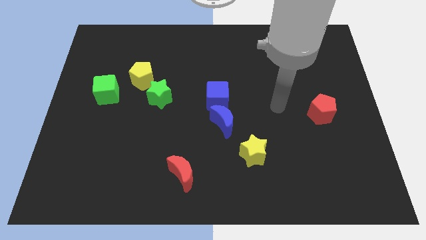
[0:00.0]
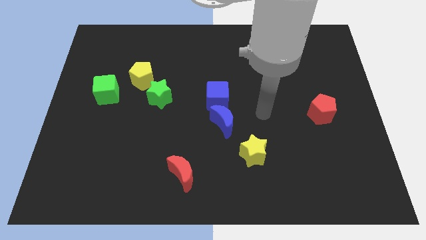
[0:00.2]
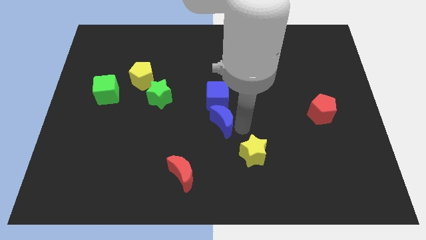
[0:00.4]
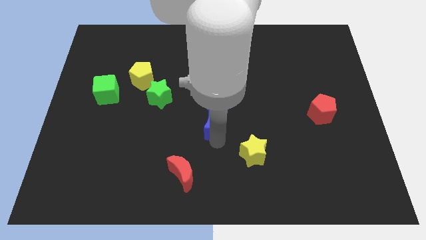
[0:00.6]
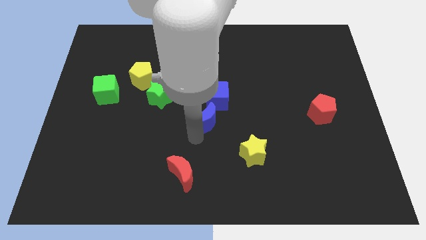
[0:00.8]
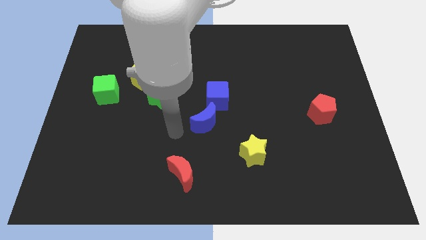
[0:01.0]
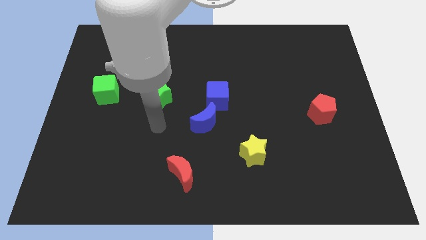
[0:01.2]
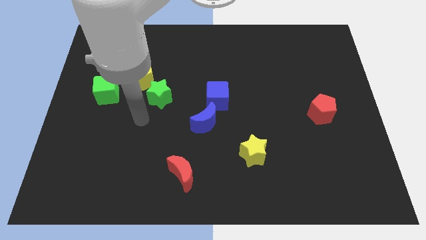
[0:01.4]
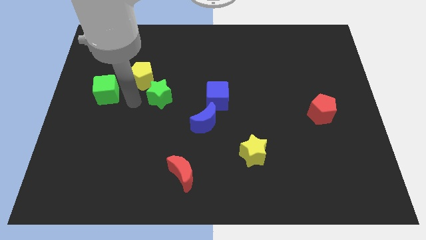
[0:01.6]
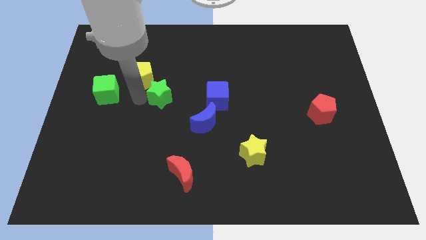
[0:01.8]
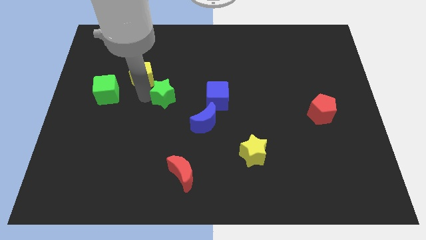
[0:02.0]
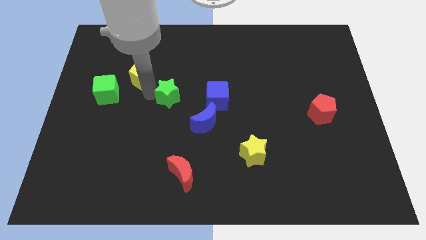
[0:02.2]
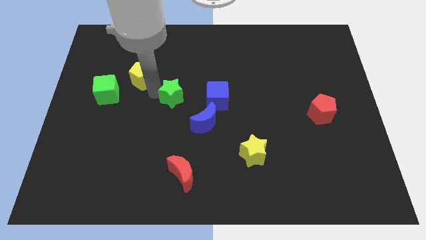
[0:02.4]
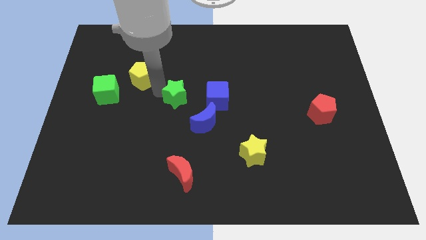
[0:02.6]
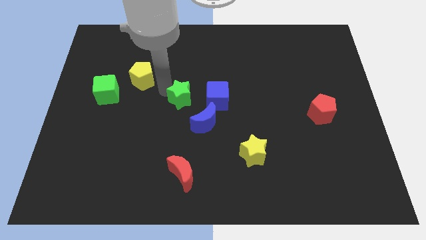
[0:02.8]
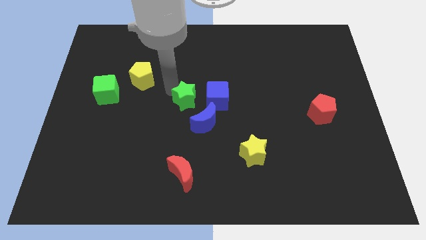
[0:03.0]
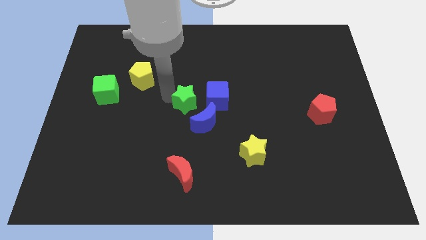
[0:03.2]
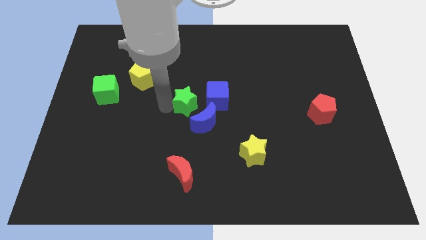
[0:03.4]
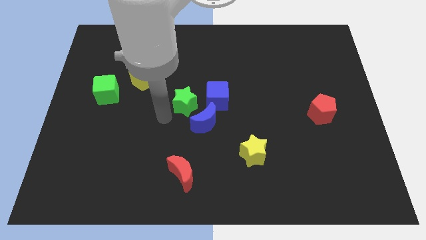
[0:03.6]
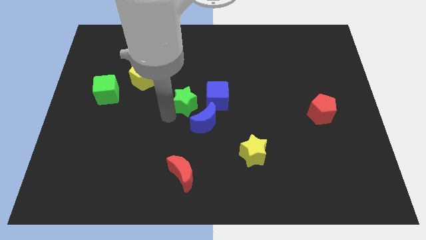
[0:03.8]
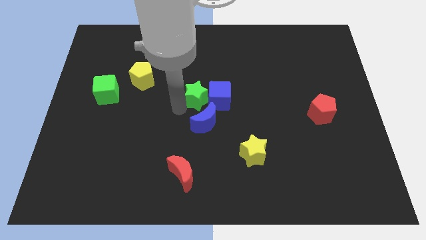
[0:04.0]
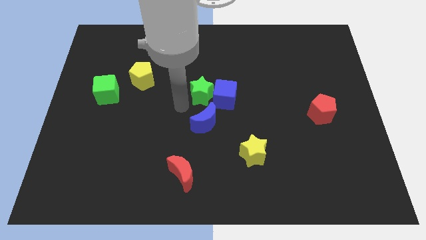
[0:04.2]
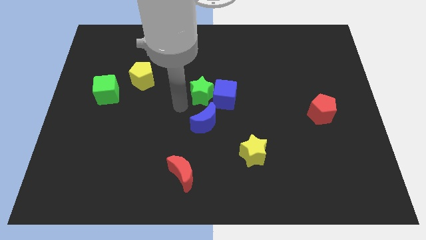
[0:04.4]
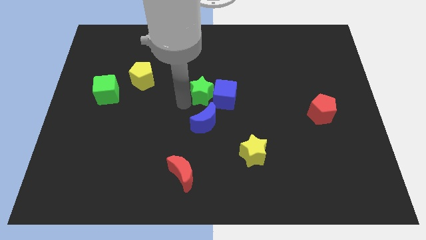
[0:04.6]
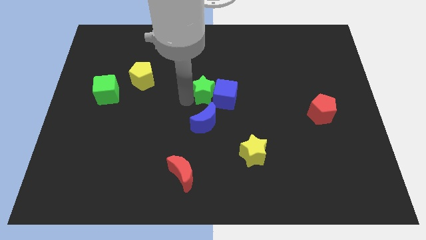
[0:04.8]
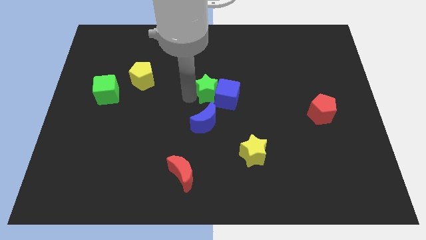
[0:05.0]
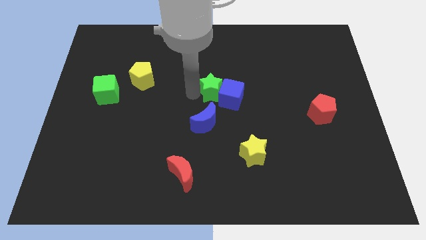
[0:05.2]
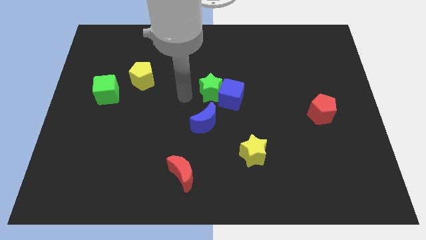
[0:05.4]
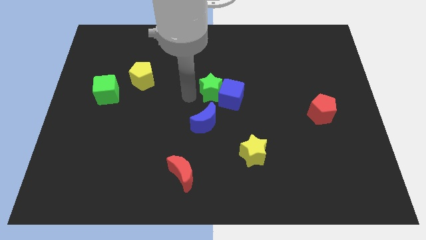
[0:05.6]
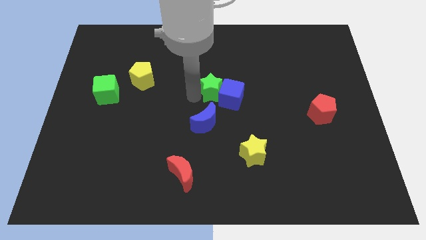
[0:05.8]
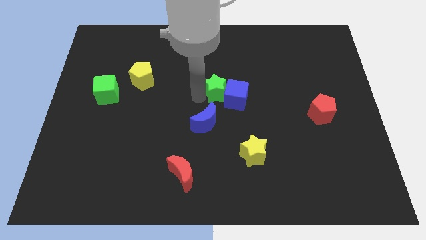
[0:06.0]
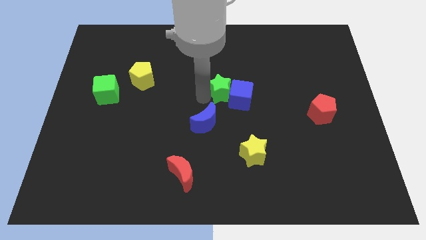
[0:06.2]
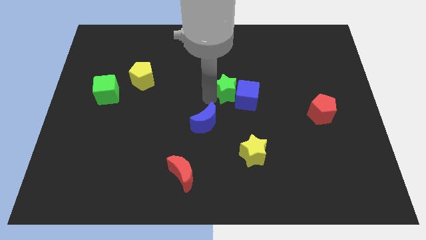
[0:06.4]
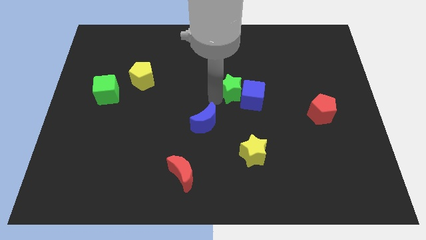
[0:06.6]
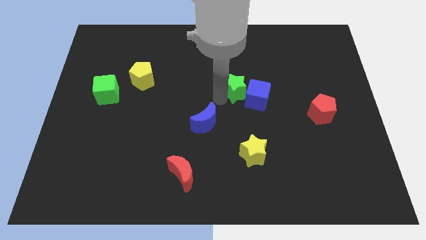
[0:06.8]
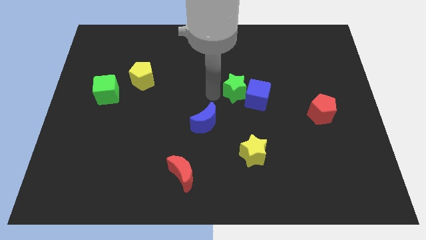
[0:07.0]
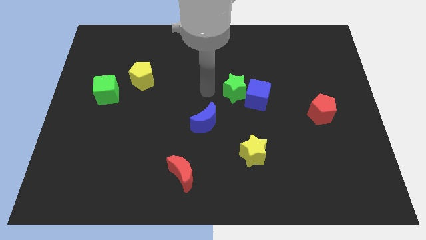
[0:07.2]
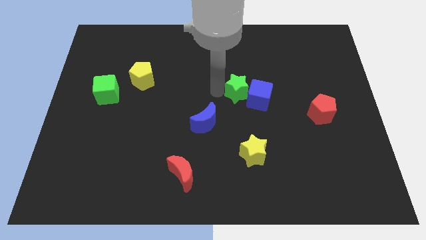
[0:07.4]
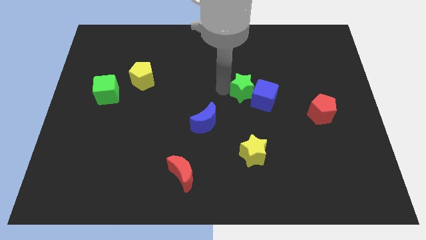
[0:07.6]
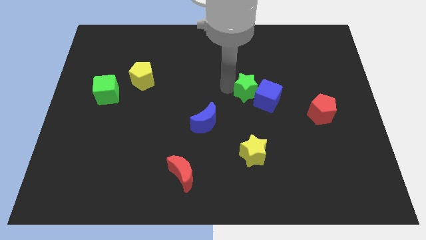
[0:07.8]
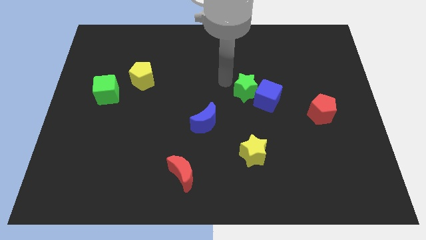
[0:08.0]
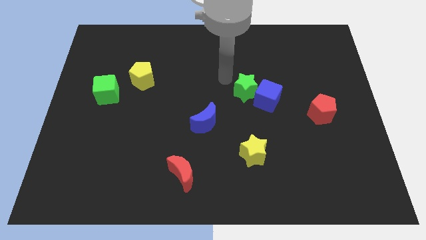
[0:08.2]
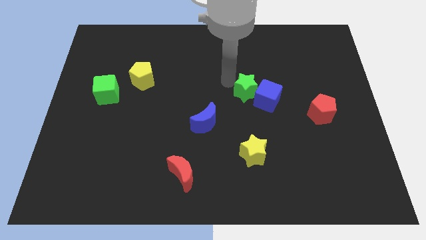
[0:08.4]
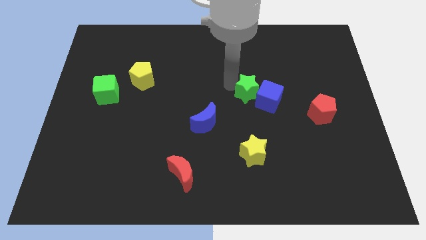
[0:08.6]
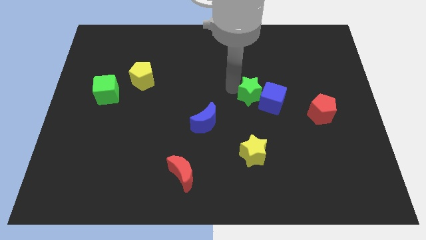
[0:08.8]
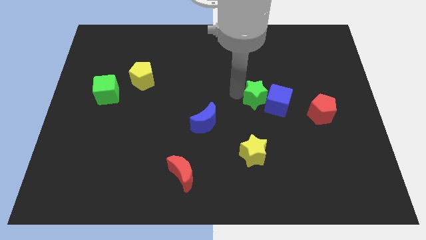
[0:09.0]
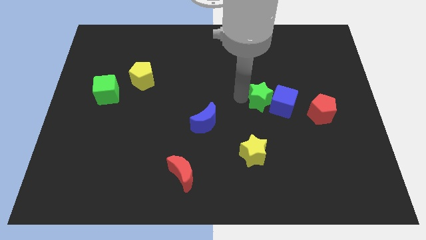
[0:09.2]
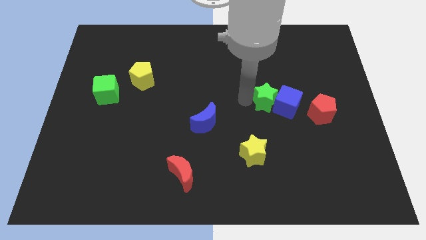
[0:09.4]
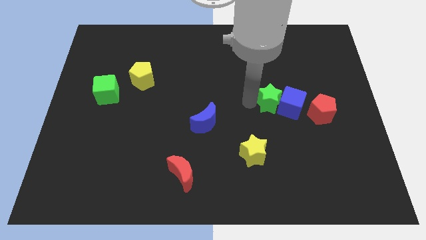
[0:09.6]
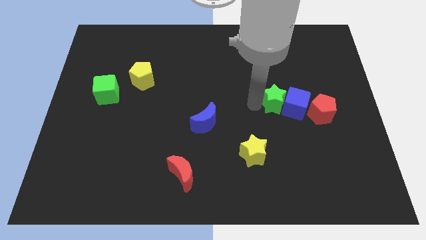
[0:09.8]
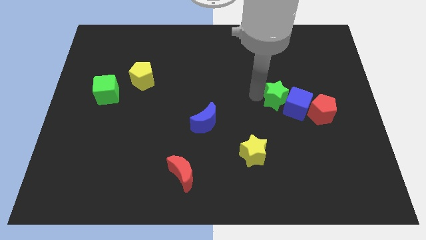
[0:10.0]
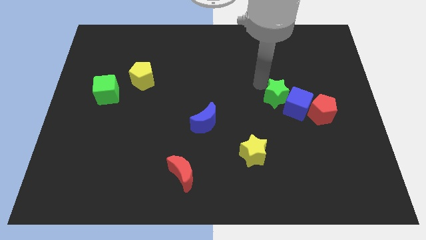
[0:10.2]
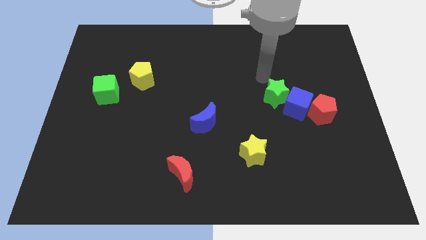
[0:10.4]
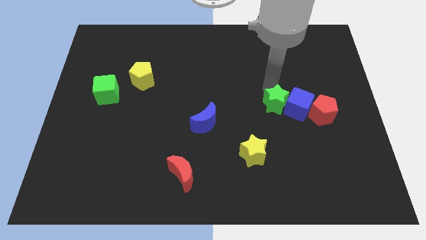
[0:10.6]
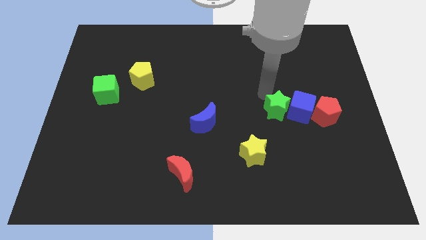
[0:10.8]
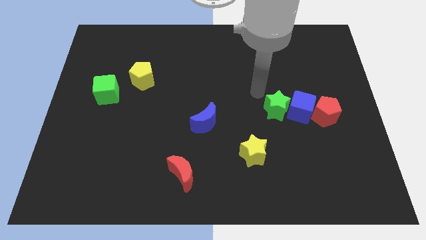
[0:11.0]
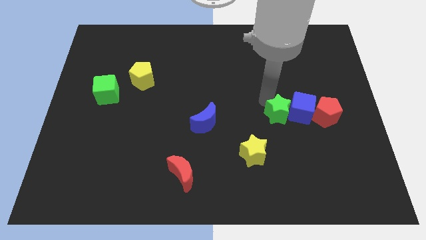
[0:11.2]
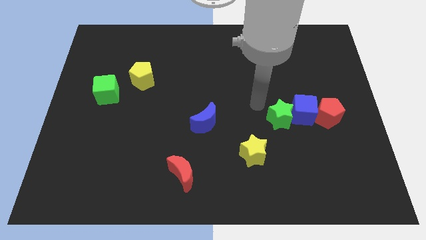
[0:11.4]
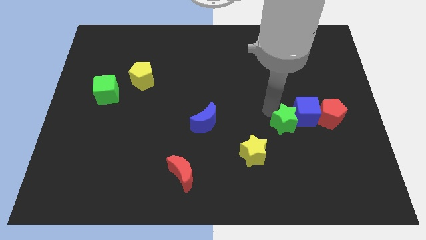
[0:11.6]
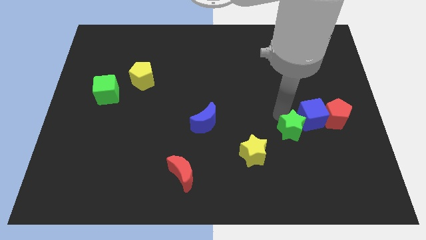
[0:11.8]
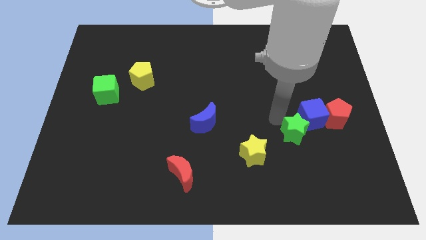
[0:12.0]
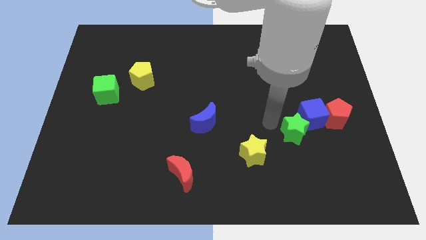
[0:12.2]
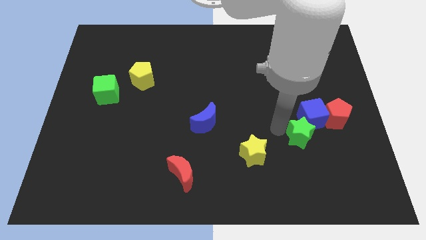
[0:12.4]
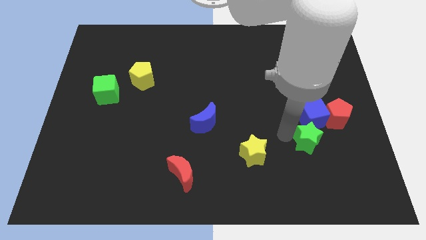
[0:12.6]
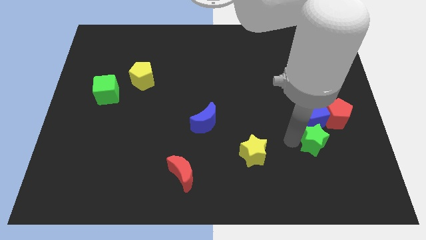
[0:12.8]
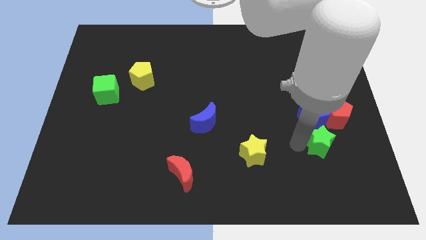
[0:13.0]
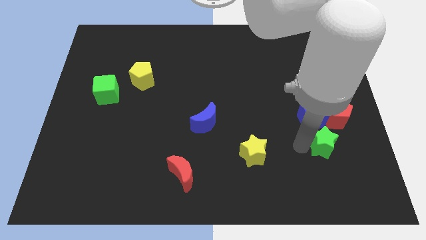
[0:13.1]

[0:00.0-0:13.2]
move the green star to the bottom side of the red pentagon

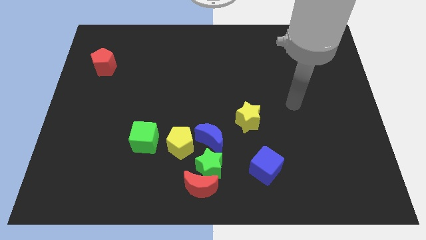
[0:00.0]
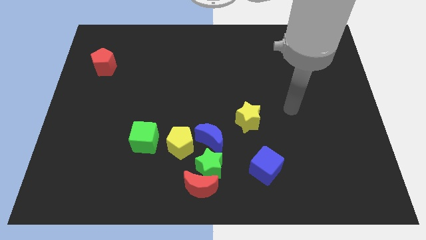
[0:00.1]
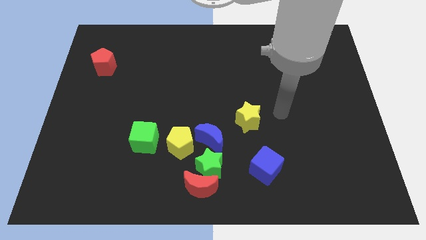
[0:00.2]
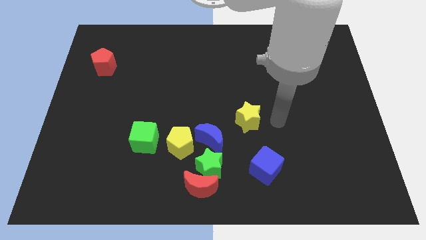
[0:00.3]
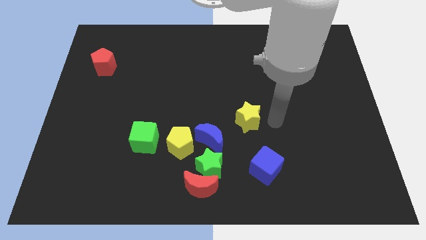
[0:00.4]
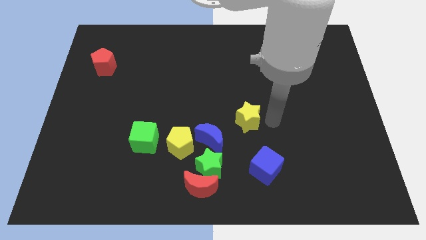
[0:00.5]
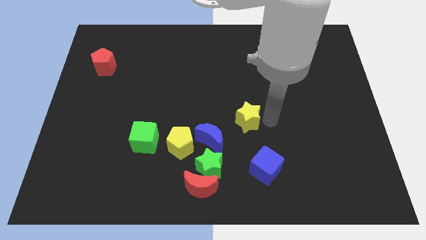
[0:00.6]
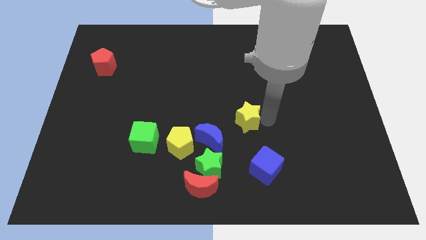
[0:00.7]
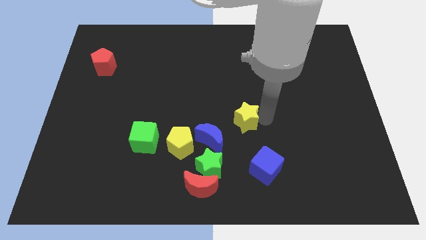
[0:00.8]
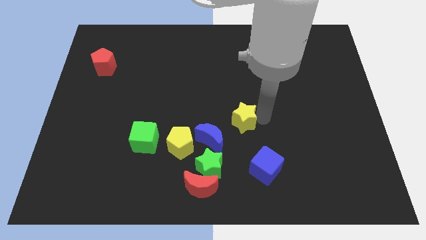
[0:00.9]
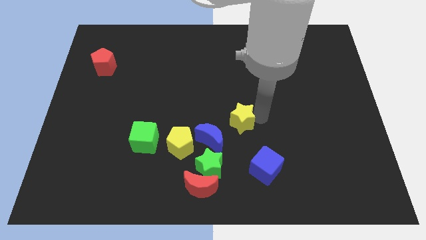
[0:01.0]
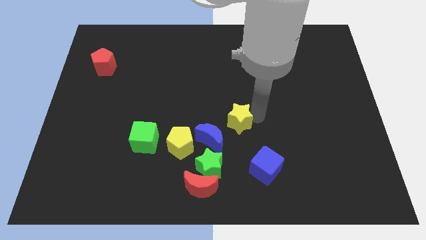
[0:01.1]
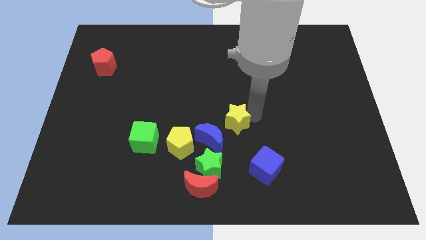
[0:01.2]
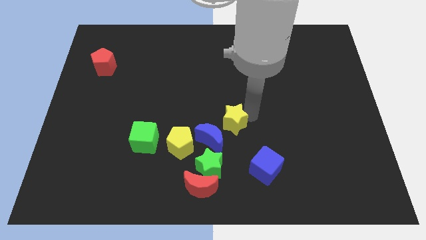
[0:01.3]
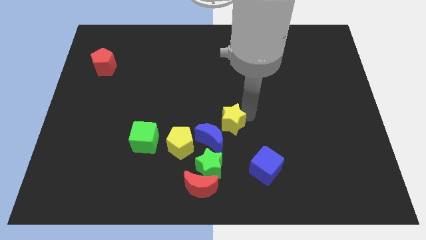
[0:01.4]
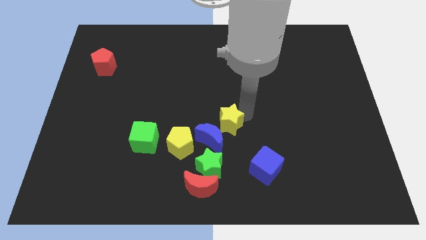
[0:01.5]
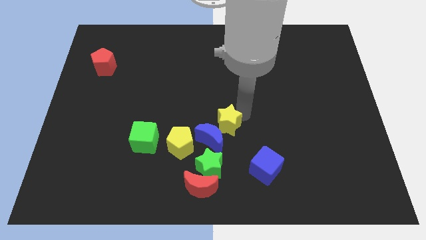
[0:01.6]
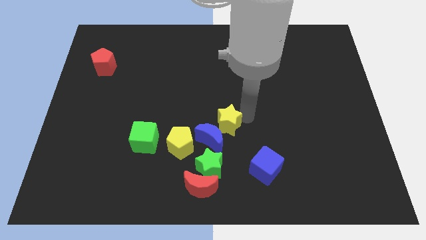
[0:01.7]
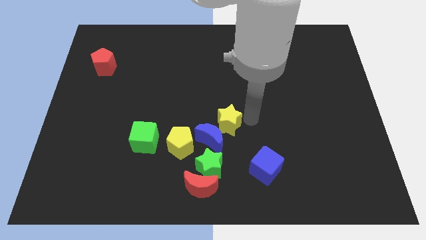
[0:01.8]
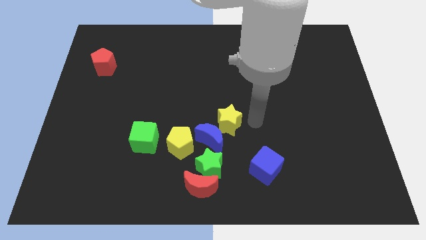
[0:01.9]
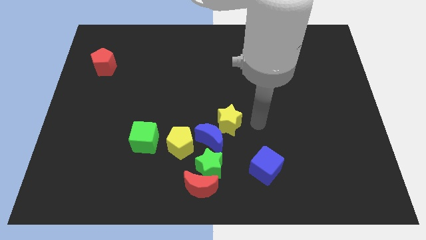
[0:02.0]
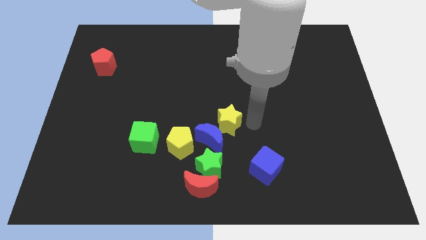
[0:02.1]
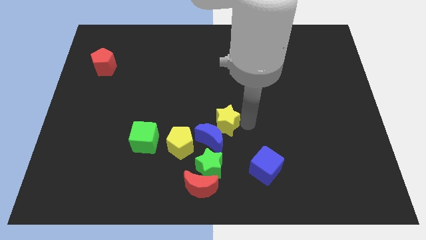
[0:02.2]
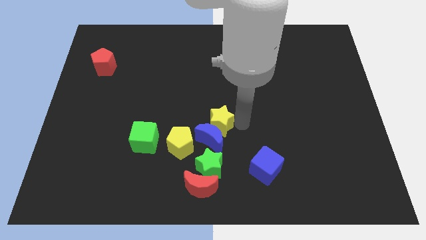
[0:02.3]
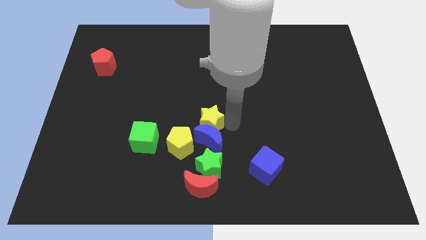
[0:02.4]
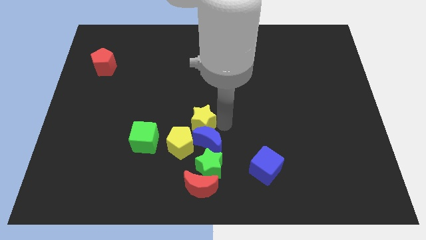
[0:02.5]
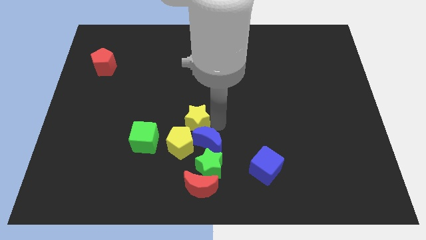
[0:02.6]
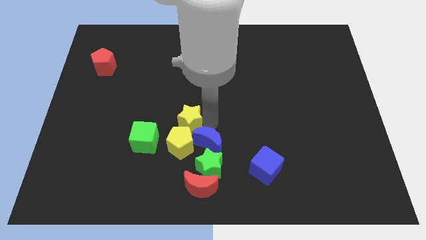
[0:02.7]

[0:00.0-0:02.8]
slide the yellow star to the top right side of the green cube
